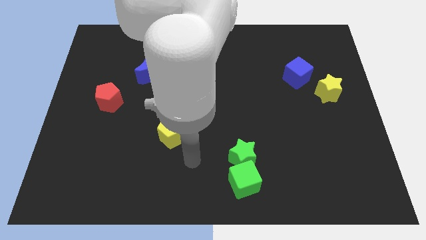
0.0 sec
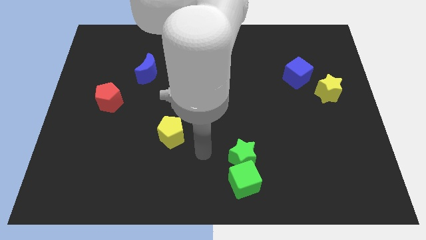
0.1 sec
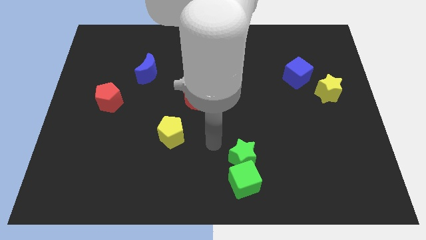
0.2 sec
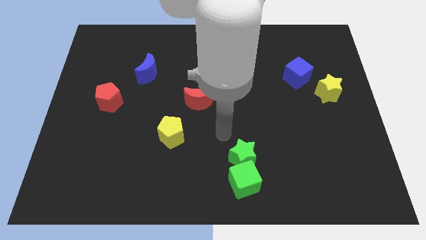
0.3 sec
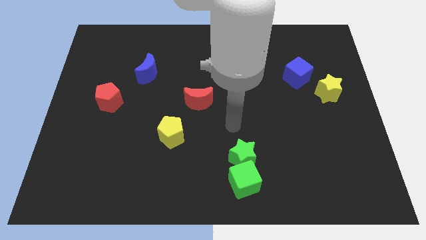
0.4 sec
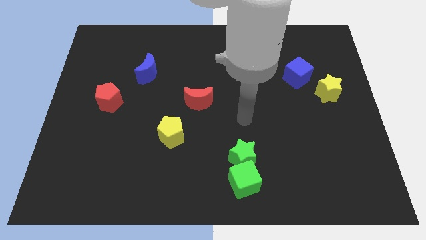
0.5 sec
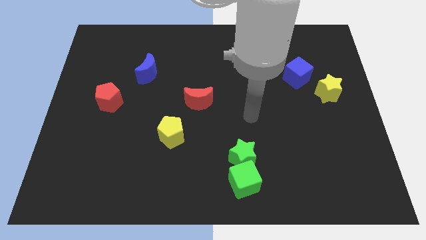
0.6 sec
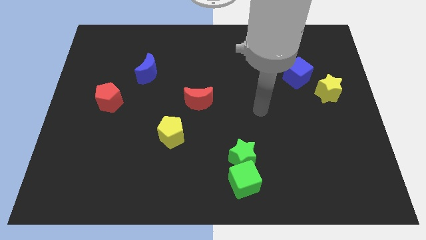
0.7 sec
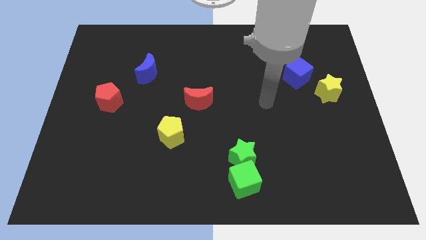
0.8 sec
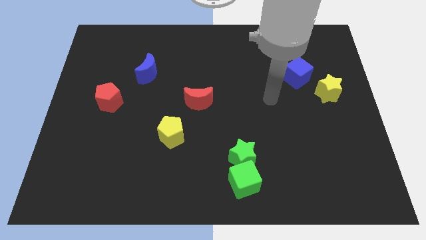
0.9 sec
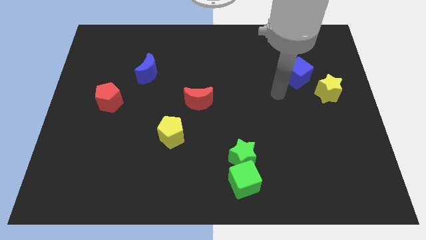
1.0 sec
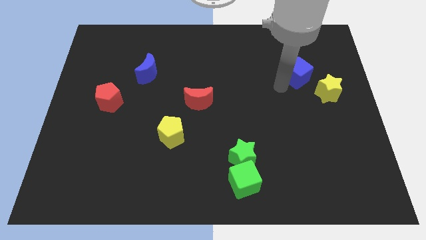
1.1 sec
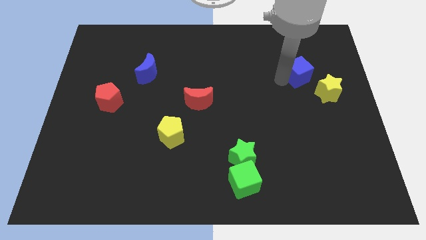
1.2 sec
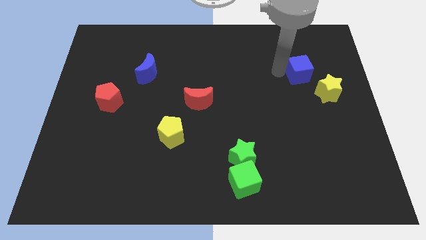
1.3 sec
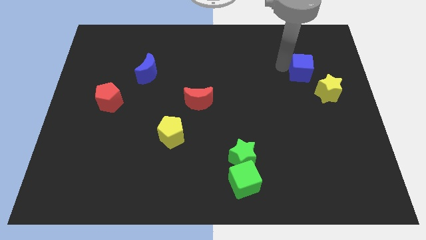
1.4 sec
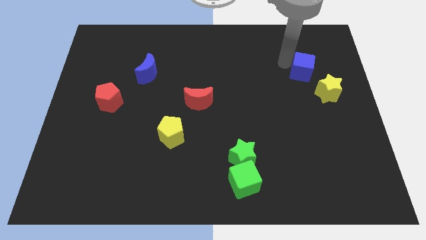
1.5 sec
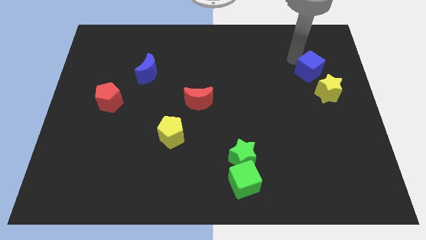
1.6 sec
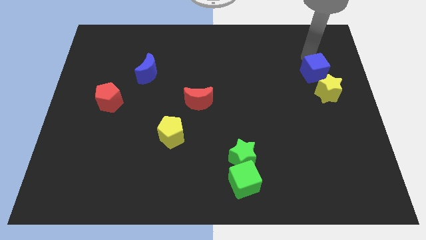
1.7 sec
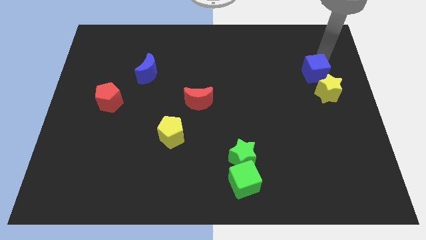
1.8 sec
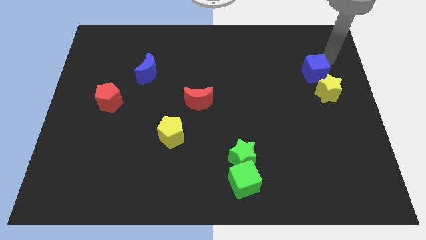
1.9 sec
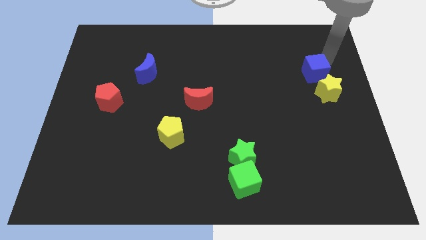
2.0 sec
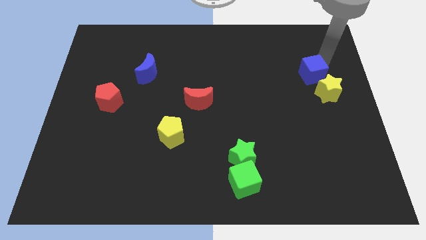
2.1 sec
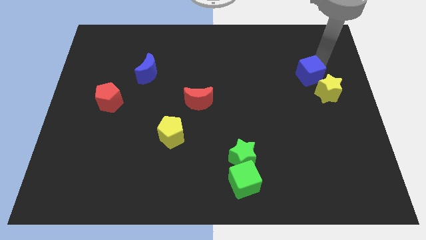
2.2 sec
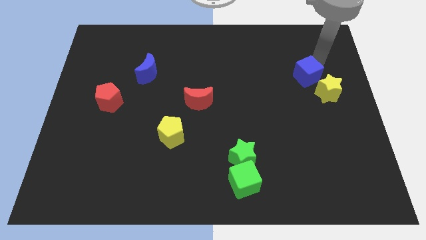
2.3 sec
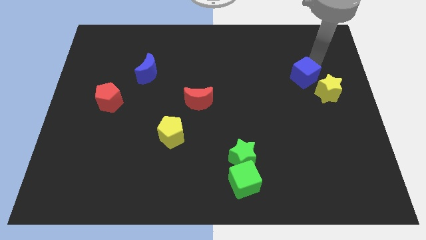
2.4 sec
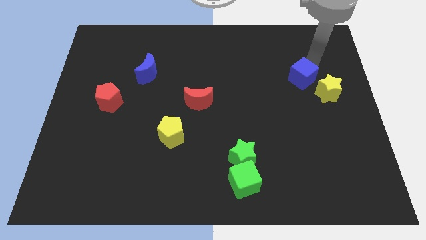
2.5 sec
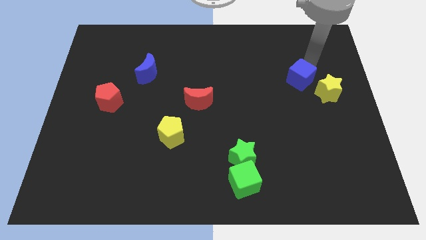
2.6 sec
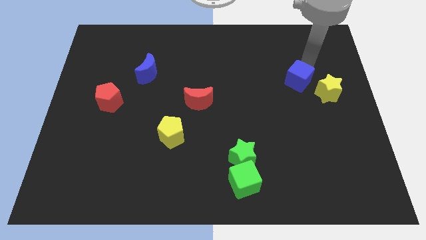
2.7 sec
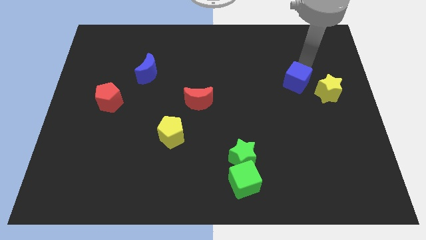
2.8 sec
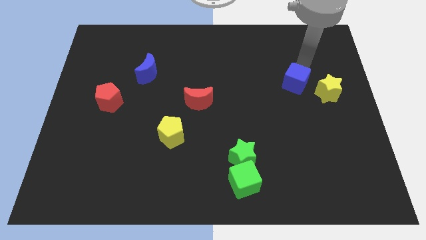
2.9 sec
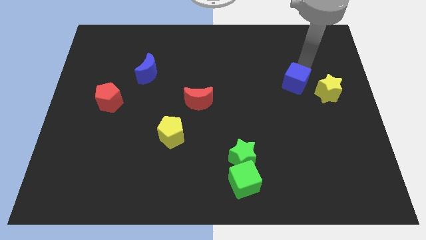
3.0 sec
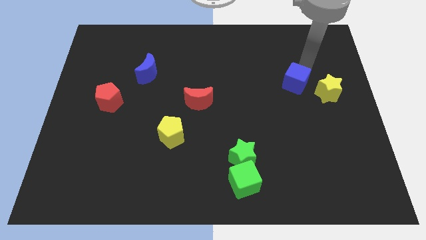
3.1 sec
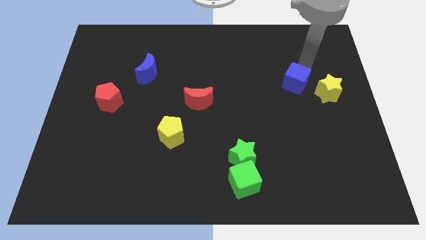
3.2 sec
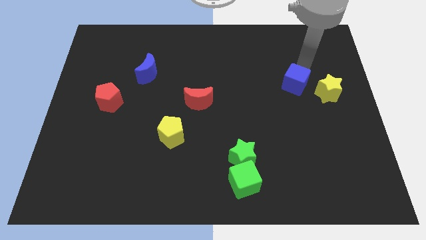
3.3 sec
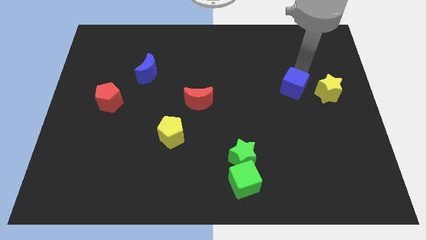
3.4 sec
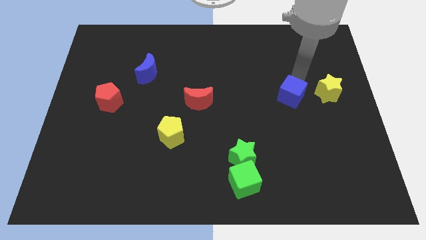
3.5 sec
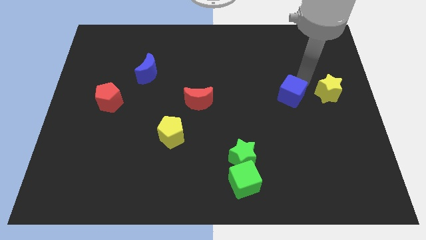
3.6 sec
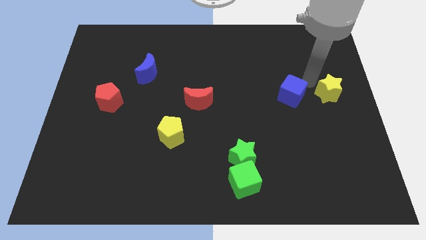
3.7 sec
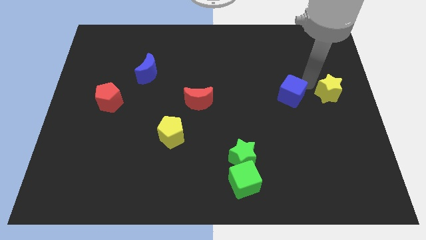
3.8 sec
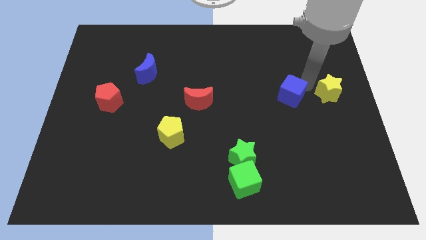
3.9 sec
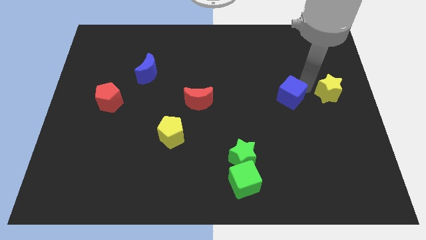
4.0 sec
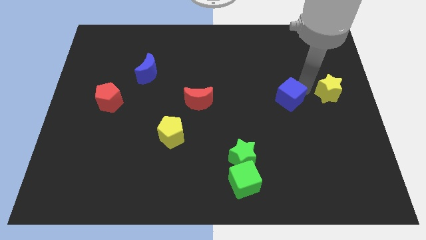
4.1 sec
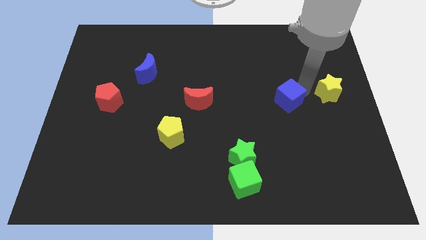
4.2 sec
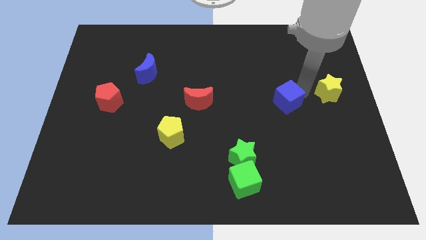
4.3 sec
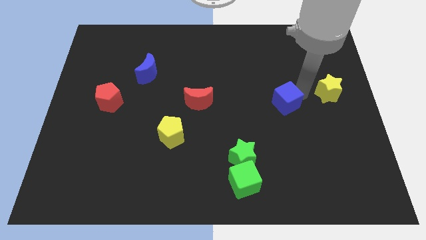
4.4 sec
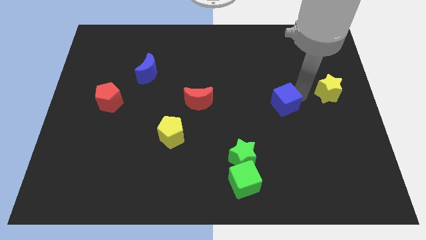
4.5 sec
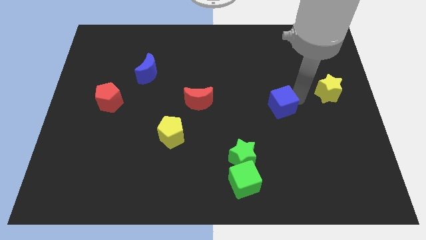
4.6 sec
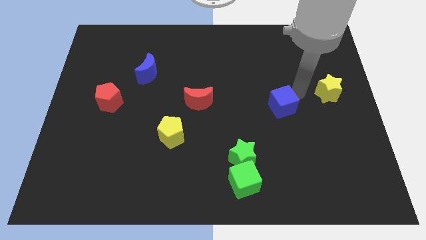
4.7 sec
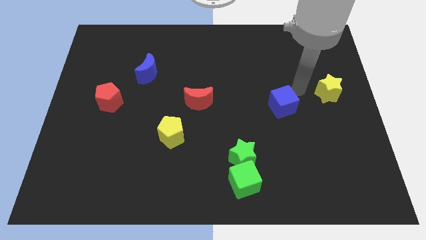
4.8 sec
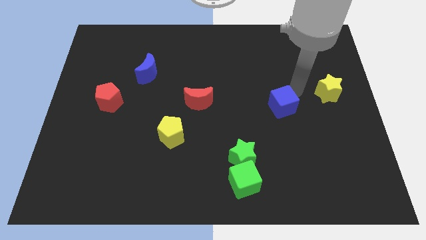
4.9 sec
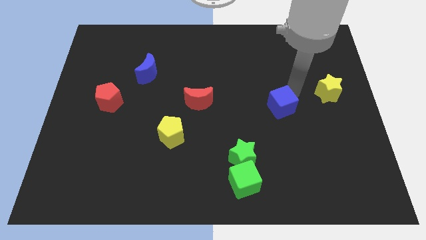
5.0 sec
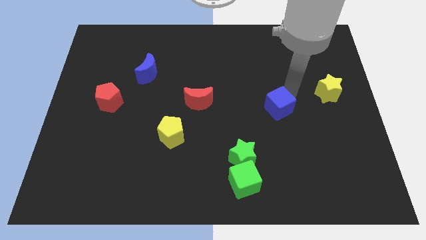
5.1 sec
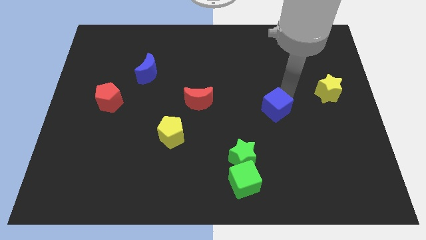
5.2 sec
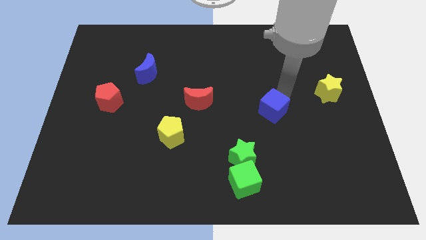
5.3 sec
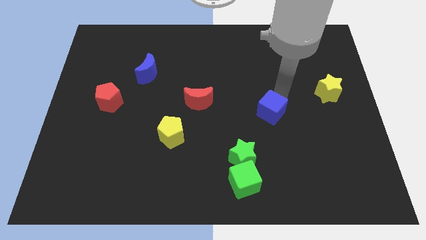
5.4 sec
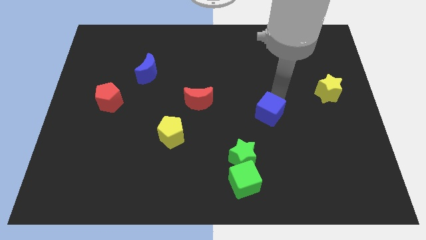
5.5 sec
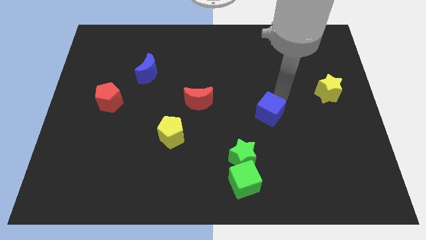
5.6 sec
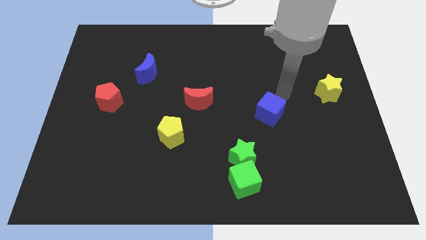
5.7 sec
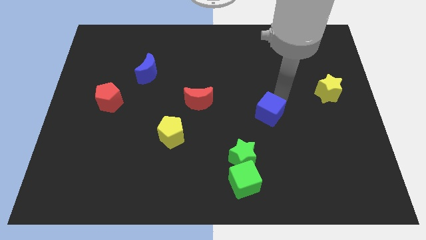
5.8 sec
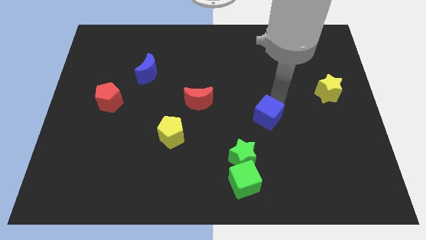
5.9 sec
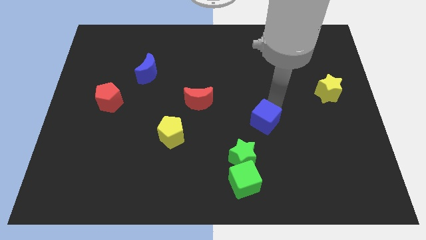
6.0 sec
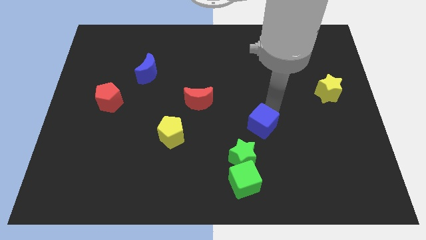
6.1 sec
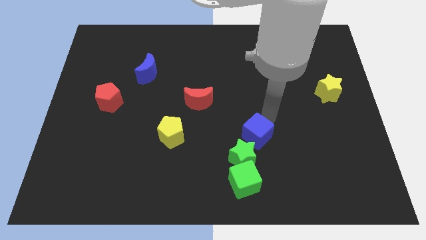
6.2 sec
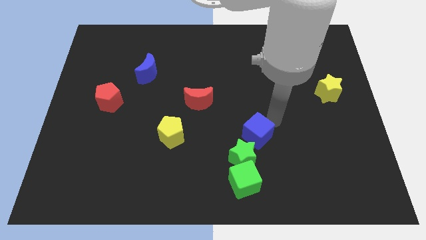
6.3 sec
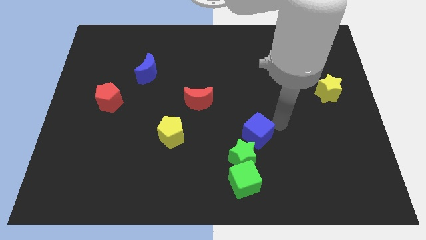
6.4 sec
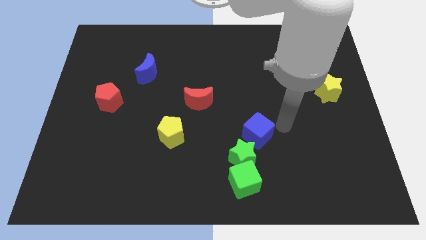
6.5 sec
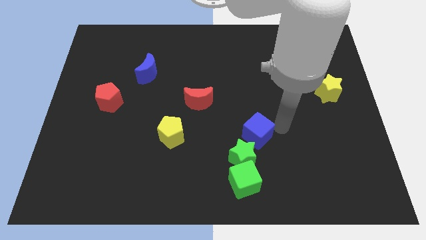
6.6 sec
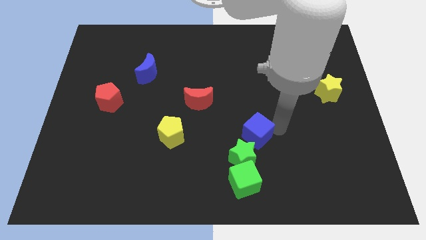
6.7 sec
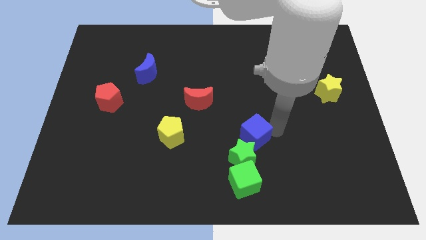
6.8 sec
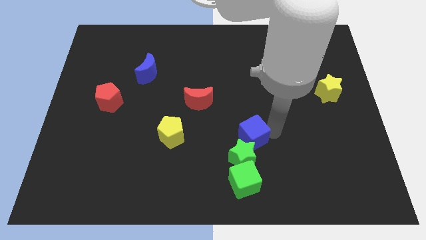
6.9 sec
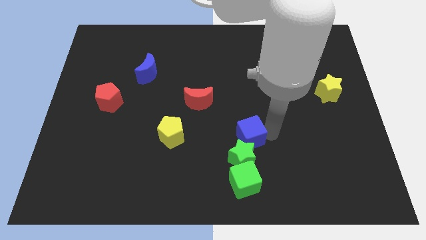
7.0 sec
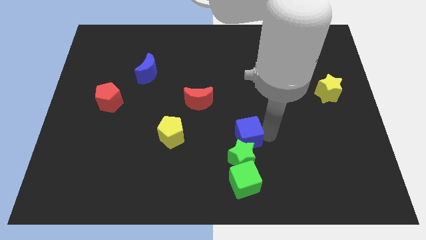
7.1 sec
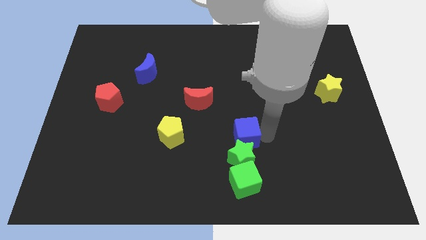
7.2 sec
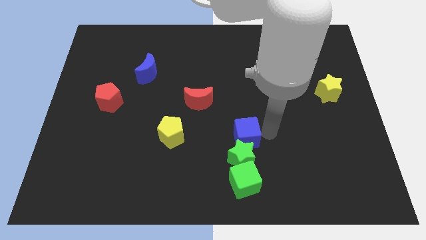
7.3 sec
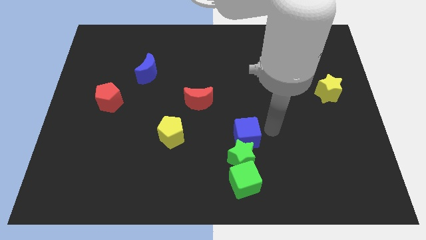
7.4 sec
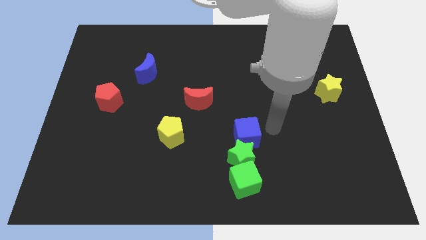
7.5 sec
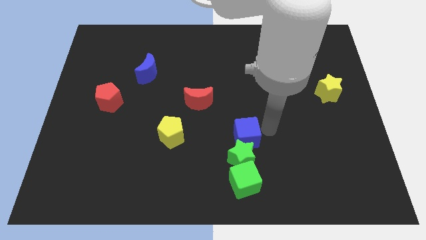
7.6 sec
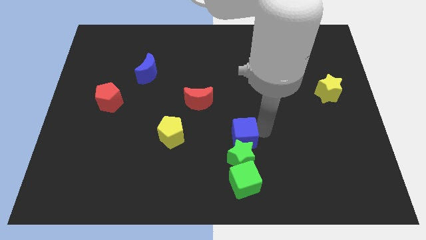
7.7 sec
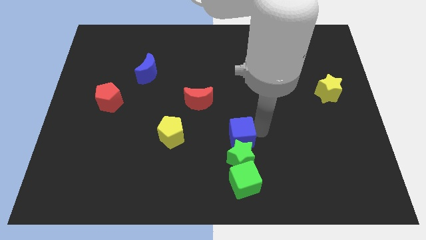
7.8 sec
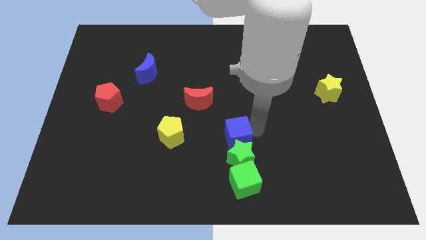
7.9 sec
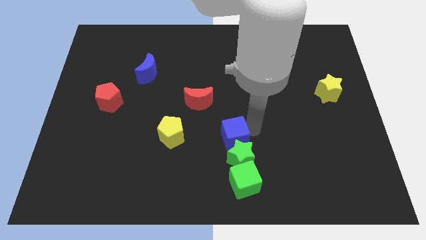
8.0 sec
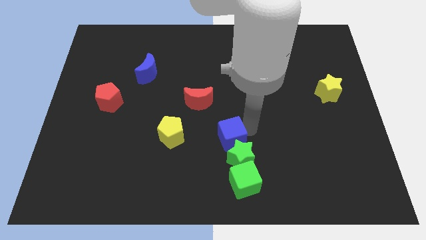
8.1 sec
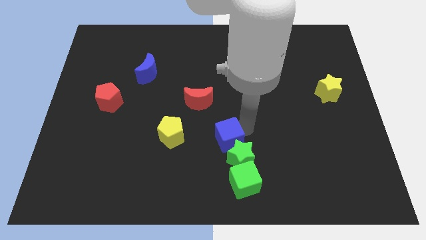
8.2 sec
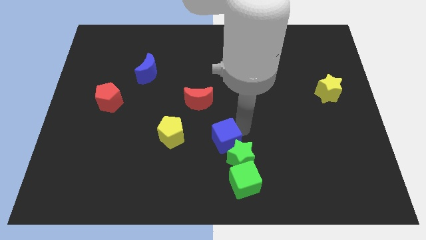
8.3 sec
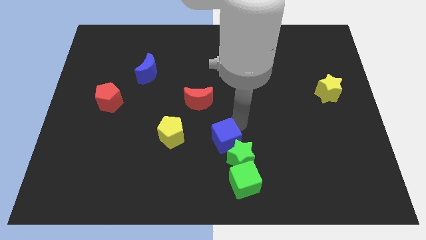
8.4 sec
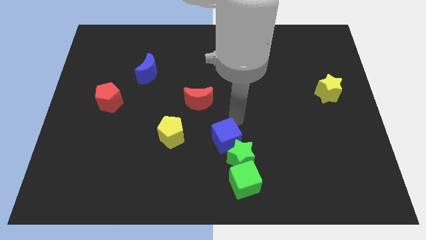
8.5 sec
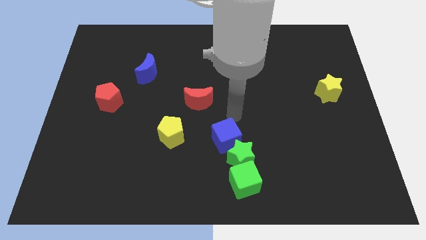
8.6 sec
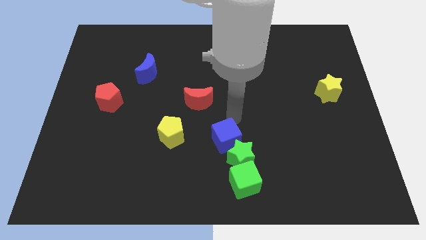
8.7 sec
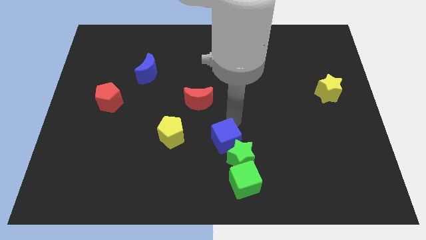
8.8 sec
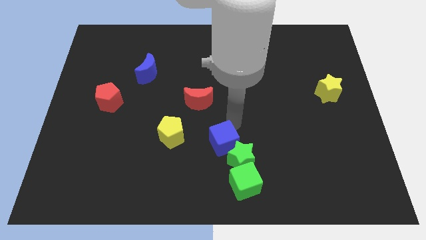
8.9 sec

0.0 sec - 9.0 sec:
put the blue cube to the top left side of the green cube
